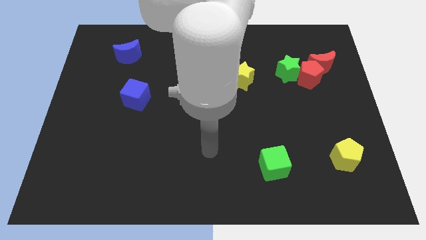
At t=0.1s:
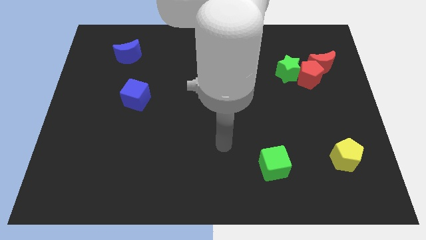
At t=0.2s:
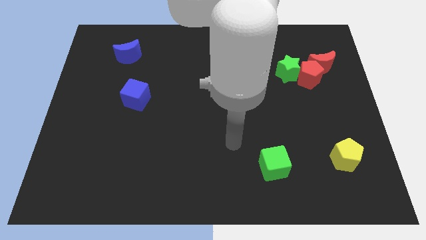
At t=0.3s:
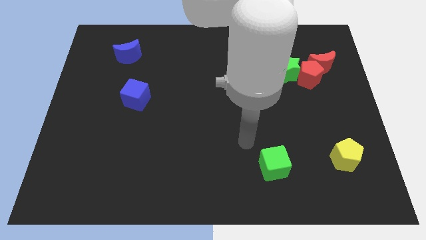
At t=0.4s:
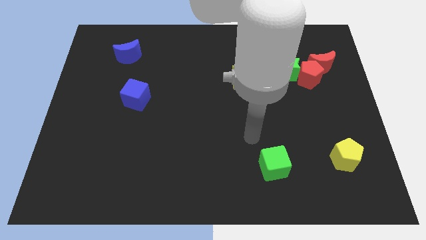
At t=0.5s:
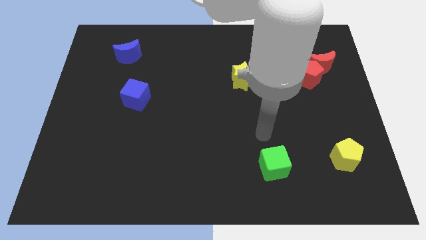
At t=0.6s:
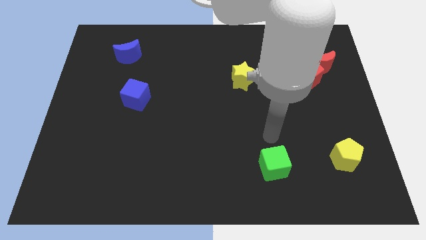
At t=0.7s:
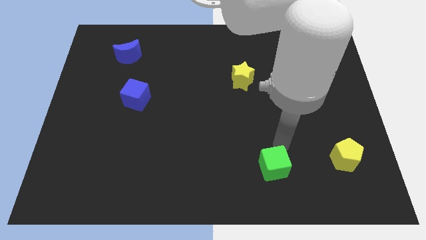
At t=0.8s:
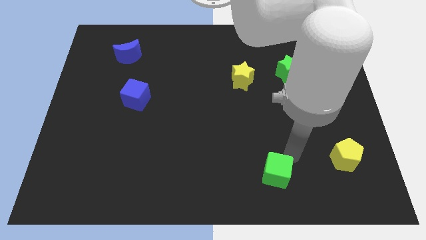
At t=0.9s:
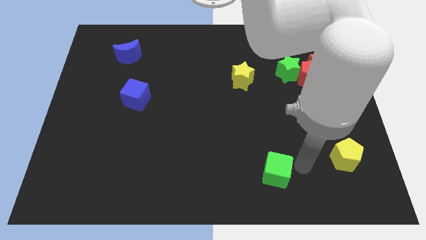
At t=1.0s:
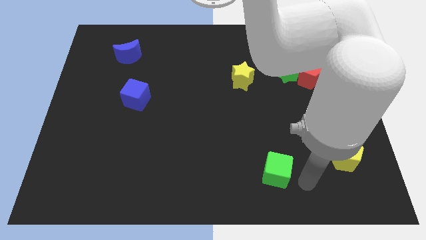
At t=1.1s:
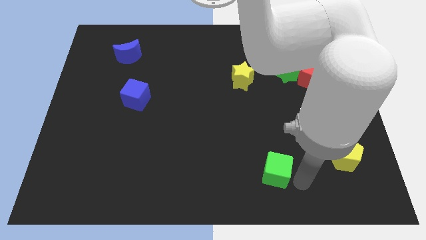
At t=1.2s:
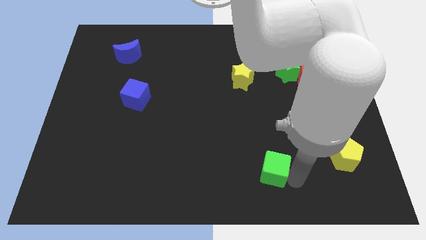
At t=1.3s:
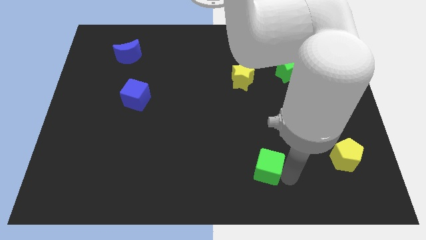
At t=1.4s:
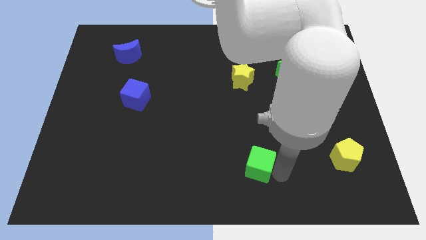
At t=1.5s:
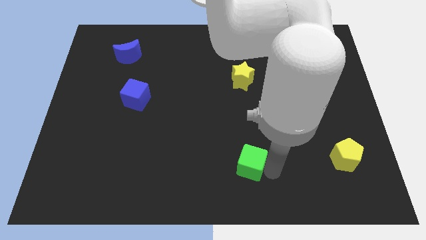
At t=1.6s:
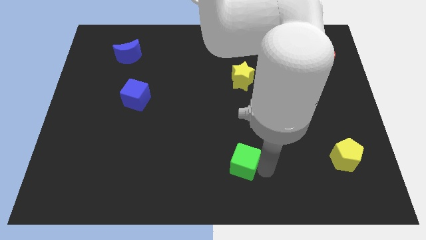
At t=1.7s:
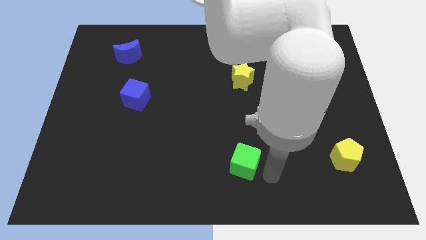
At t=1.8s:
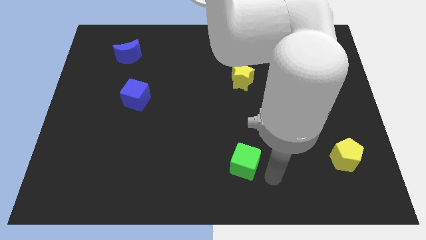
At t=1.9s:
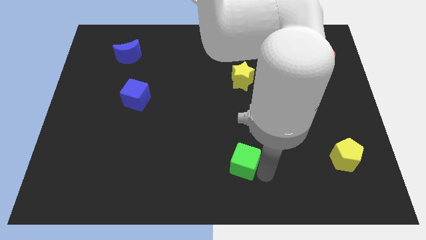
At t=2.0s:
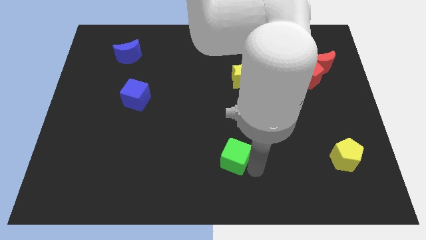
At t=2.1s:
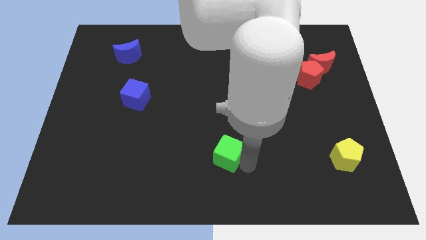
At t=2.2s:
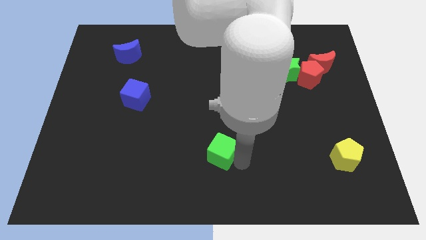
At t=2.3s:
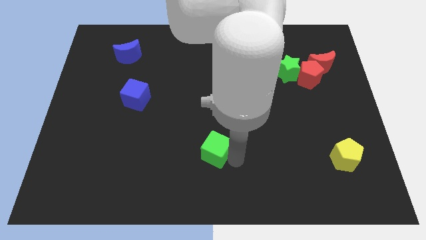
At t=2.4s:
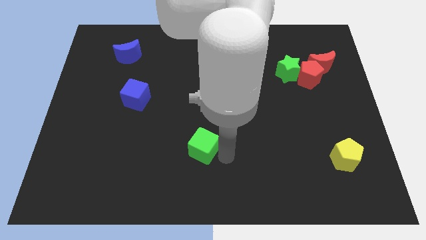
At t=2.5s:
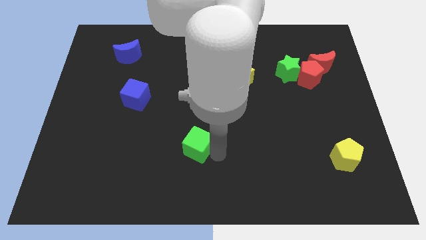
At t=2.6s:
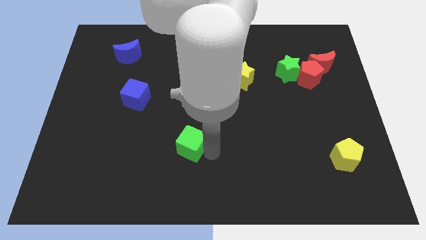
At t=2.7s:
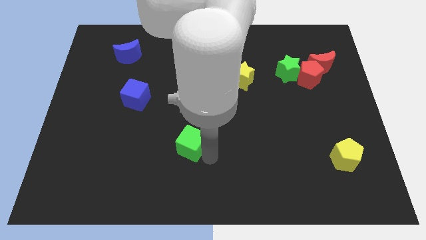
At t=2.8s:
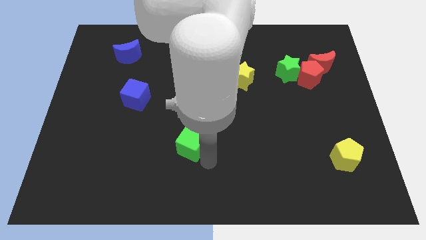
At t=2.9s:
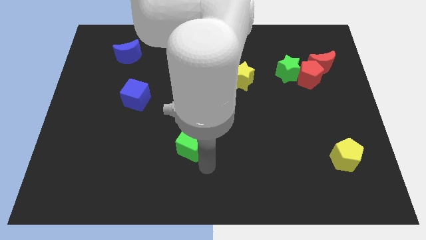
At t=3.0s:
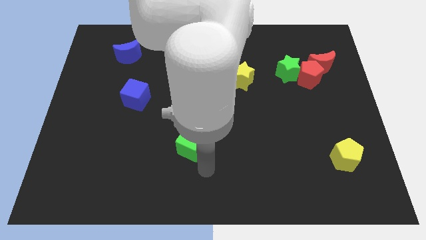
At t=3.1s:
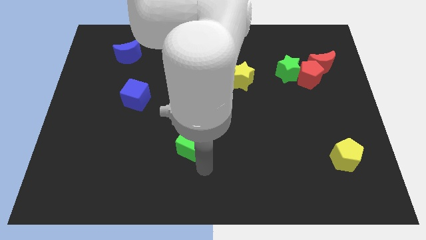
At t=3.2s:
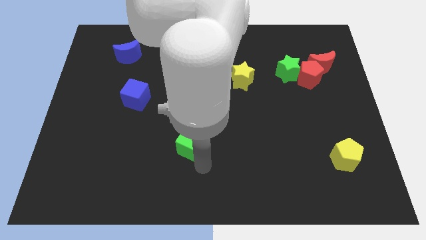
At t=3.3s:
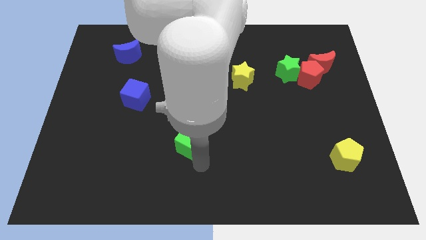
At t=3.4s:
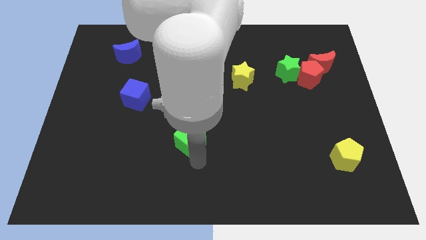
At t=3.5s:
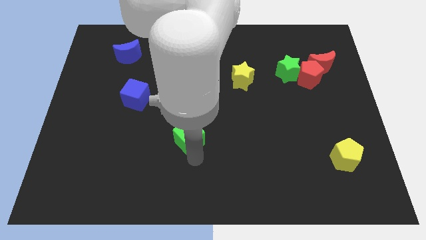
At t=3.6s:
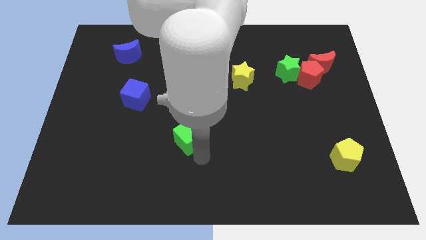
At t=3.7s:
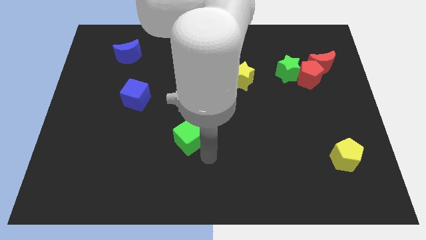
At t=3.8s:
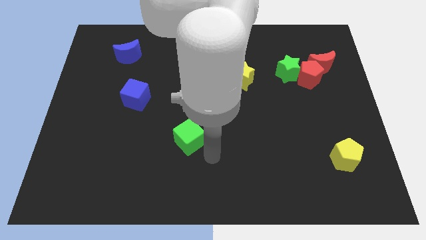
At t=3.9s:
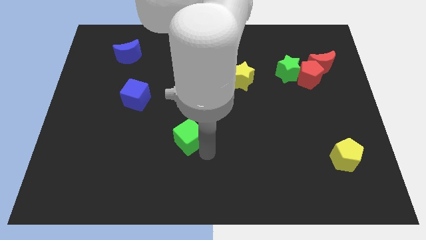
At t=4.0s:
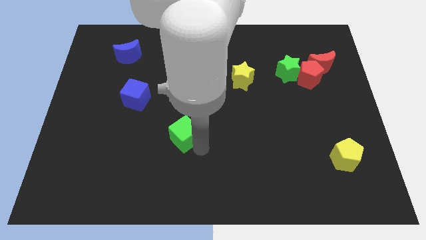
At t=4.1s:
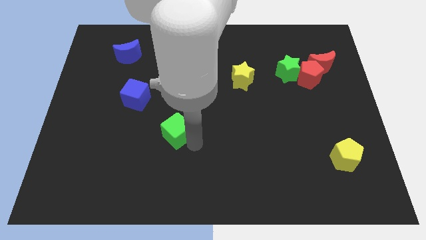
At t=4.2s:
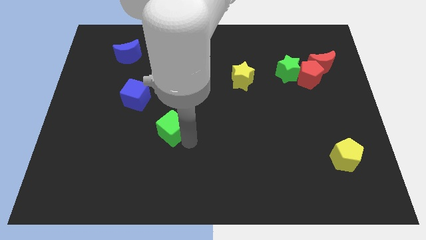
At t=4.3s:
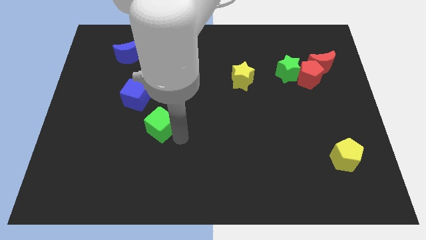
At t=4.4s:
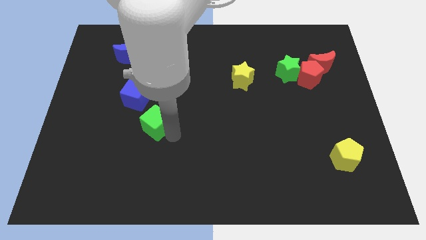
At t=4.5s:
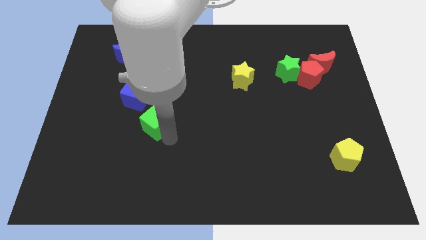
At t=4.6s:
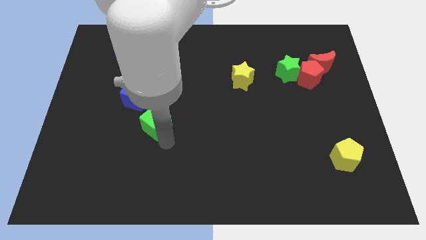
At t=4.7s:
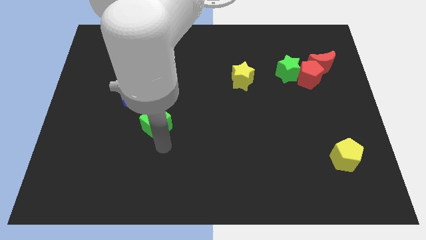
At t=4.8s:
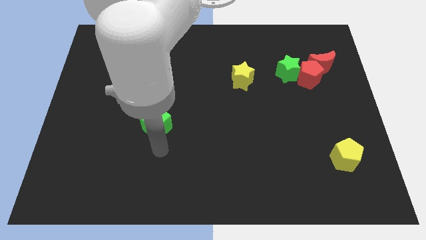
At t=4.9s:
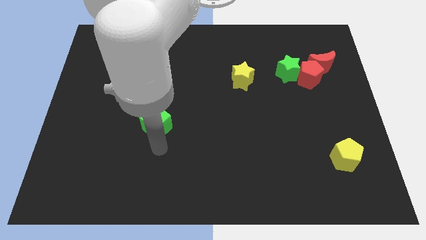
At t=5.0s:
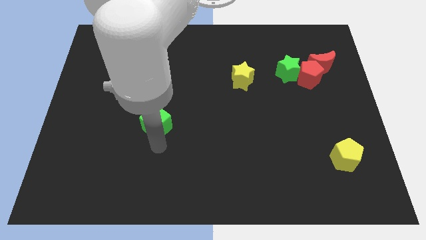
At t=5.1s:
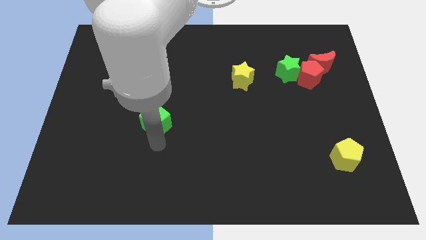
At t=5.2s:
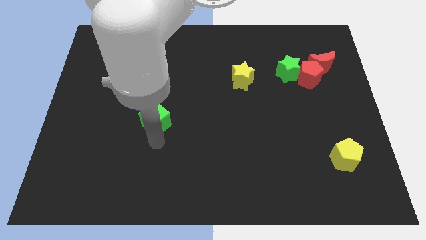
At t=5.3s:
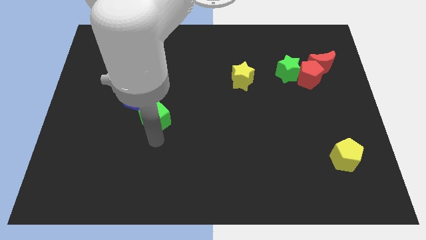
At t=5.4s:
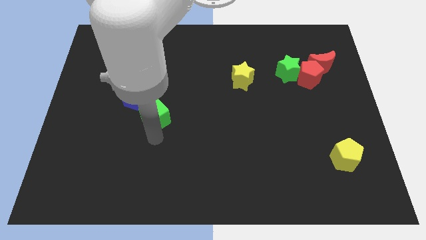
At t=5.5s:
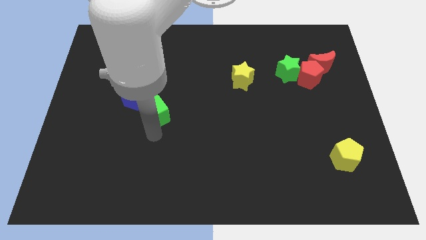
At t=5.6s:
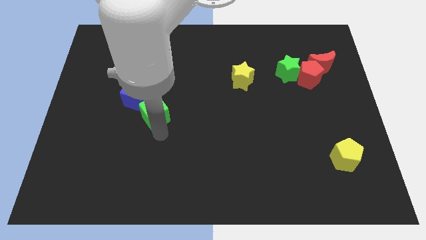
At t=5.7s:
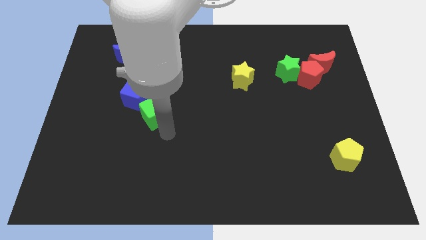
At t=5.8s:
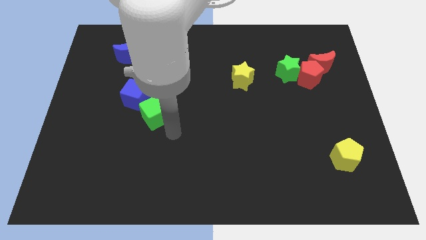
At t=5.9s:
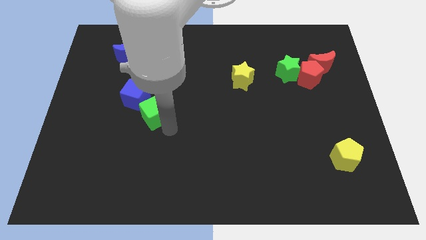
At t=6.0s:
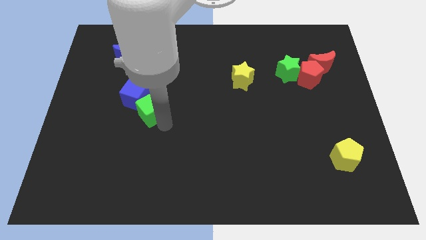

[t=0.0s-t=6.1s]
slide the green cube close to the blue cube

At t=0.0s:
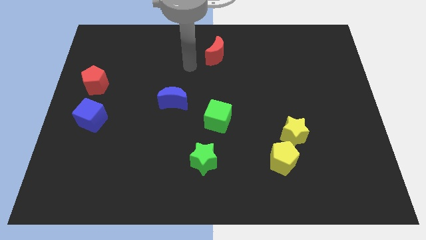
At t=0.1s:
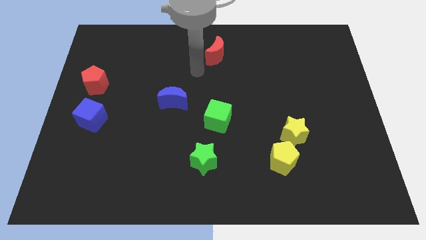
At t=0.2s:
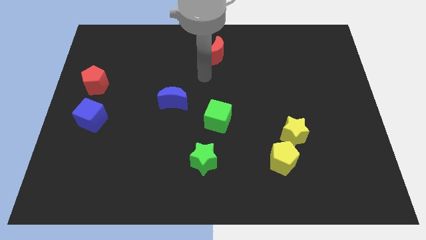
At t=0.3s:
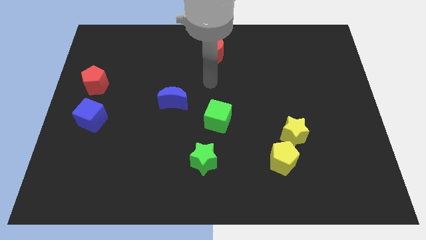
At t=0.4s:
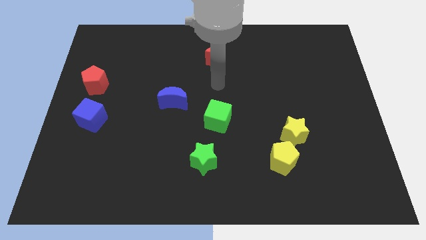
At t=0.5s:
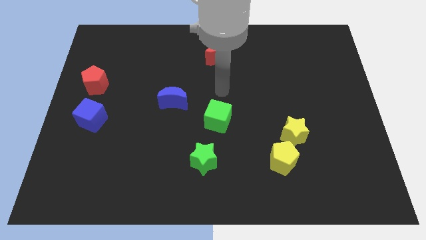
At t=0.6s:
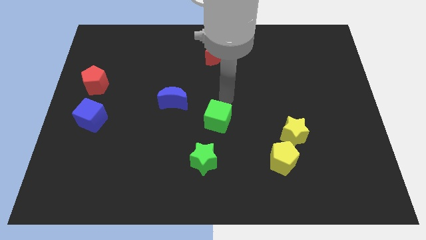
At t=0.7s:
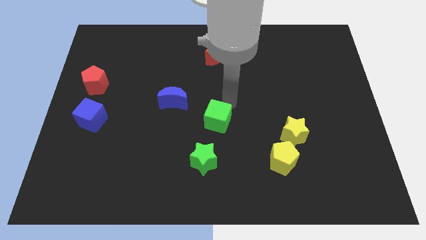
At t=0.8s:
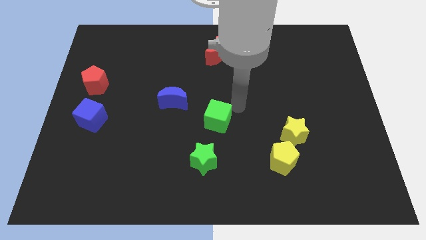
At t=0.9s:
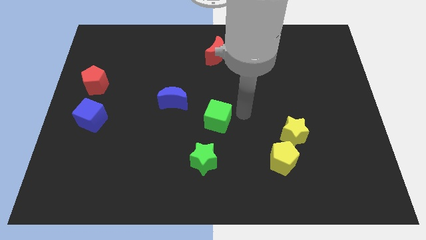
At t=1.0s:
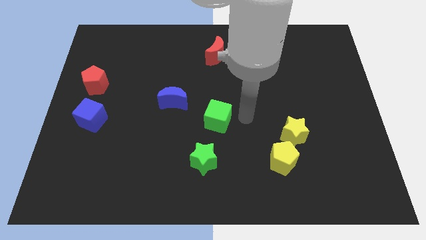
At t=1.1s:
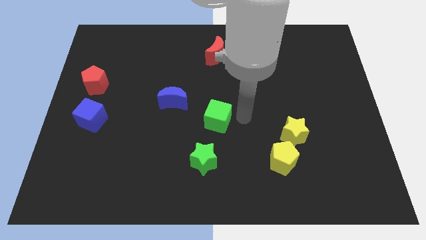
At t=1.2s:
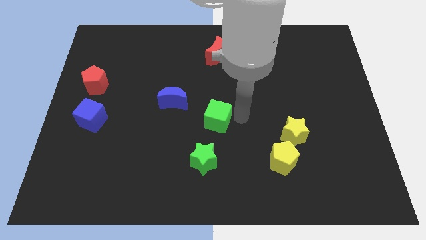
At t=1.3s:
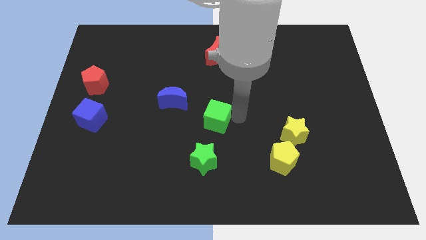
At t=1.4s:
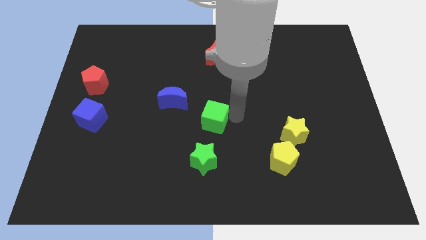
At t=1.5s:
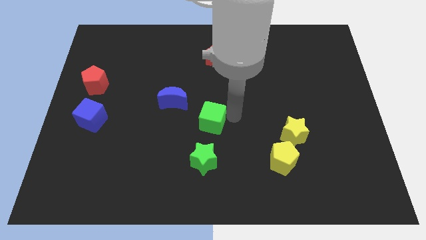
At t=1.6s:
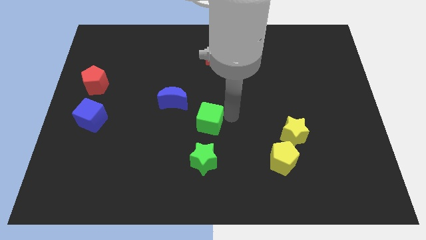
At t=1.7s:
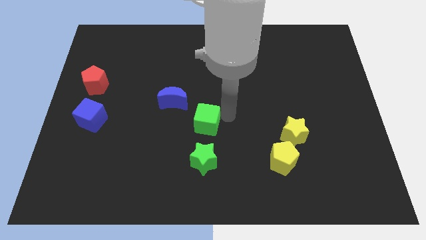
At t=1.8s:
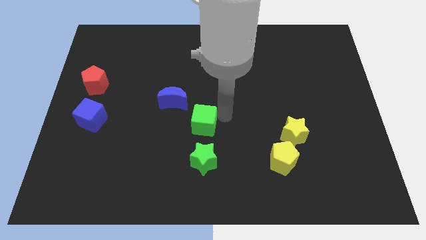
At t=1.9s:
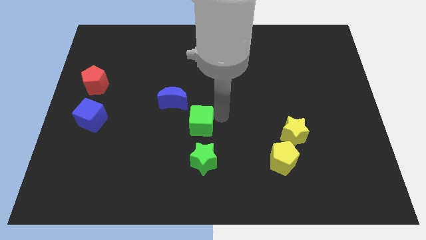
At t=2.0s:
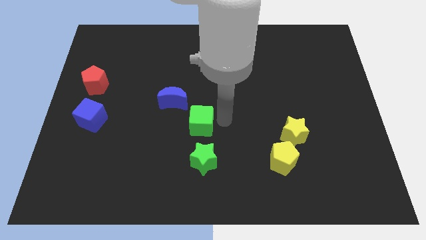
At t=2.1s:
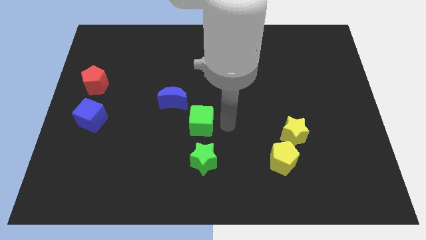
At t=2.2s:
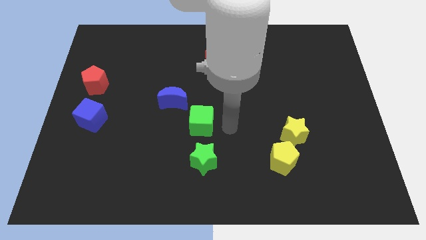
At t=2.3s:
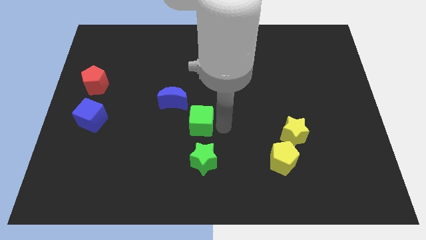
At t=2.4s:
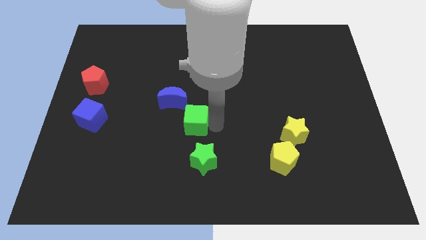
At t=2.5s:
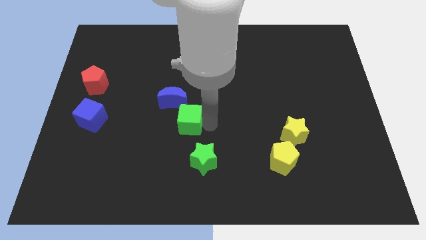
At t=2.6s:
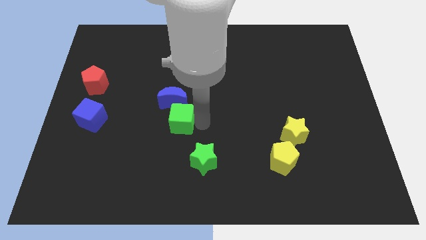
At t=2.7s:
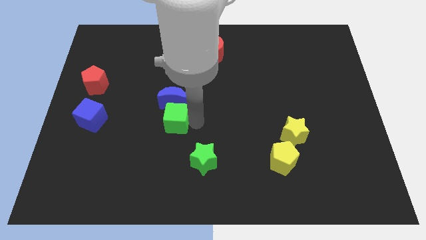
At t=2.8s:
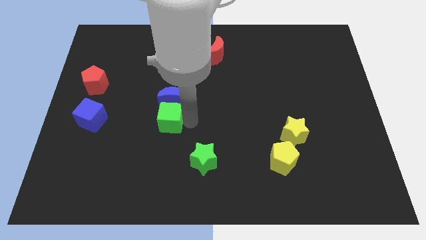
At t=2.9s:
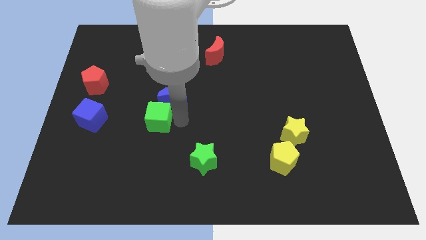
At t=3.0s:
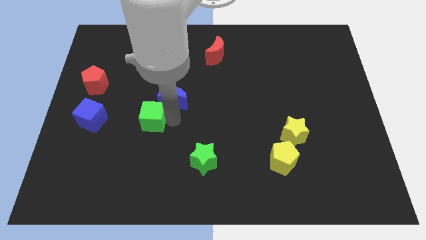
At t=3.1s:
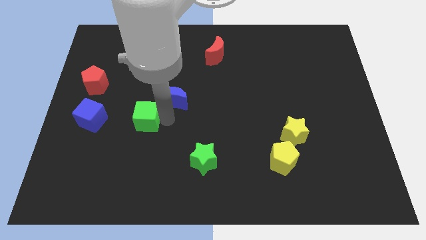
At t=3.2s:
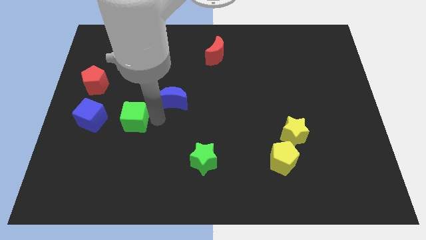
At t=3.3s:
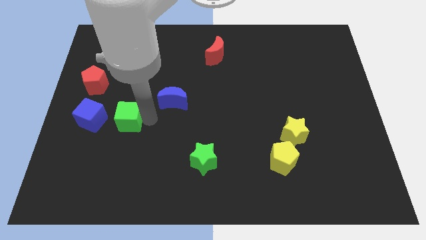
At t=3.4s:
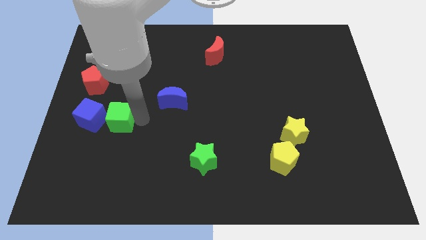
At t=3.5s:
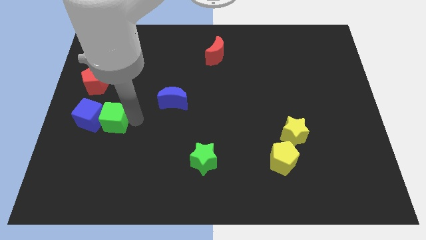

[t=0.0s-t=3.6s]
put the green cube towards the blue cube
